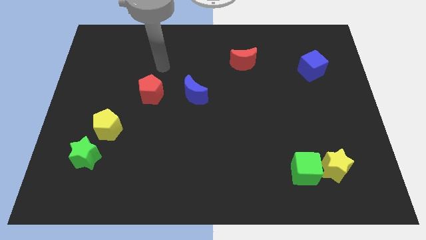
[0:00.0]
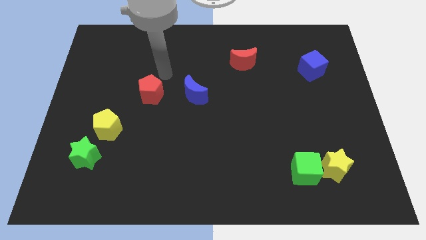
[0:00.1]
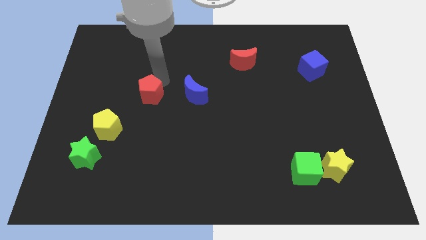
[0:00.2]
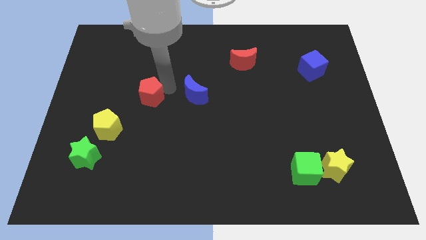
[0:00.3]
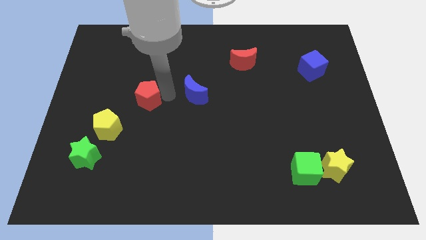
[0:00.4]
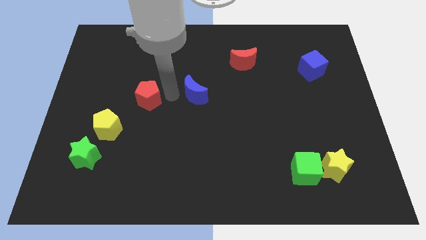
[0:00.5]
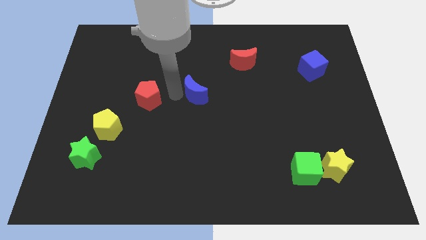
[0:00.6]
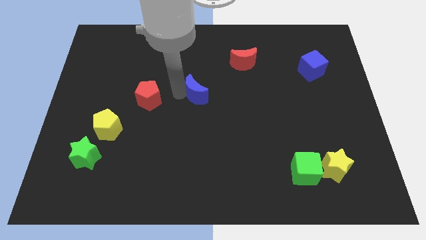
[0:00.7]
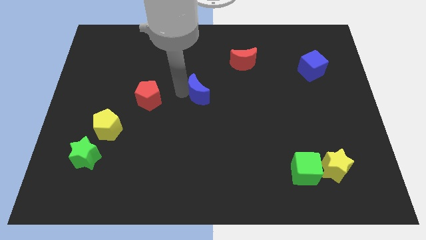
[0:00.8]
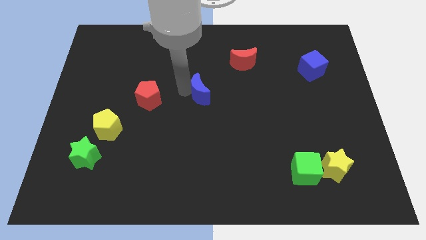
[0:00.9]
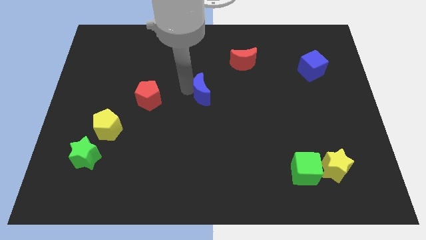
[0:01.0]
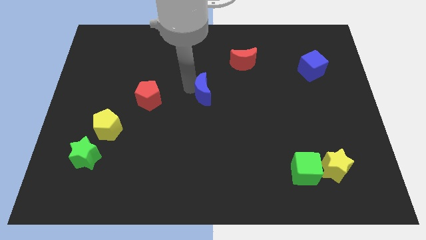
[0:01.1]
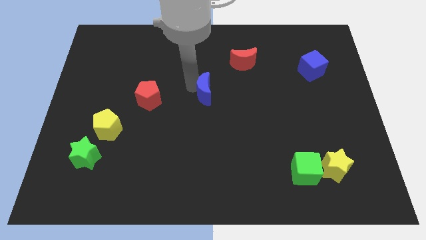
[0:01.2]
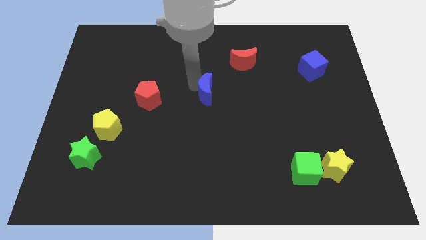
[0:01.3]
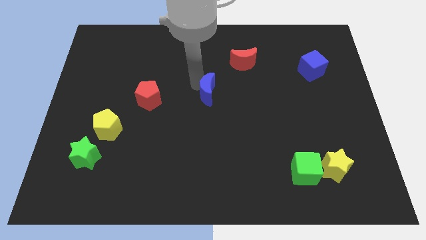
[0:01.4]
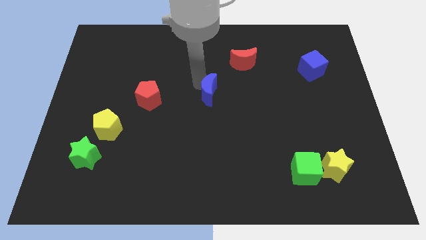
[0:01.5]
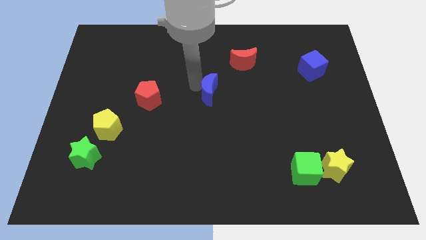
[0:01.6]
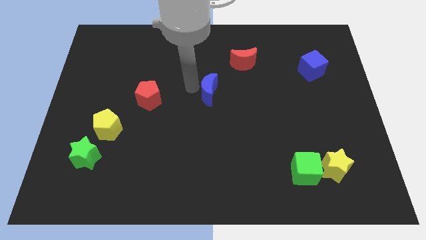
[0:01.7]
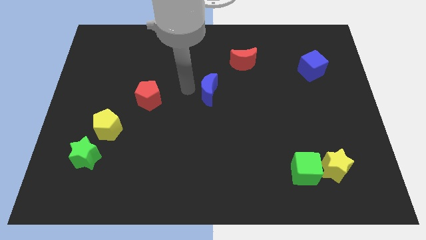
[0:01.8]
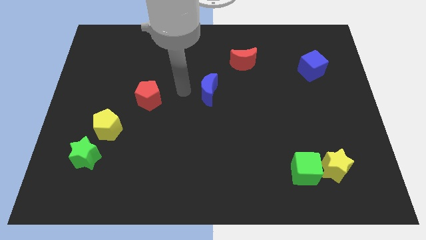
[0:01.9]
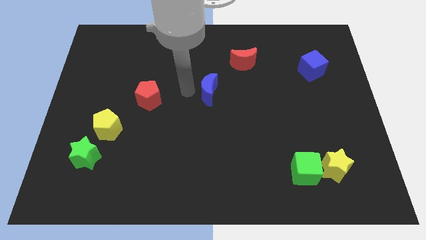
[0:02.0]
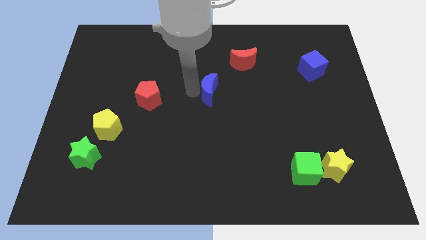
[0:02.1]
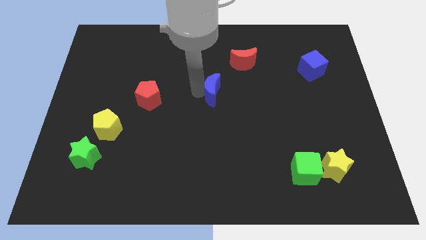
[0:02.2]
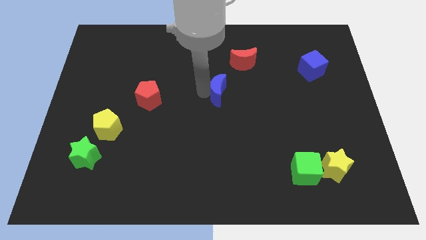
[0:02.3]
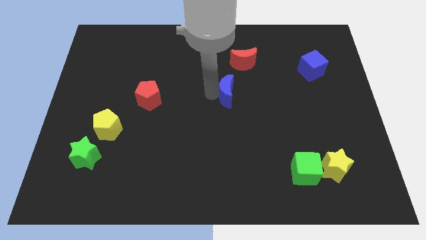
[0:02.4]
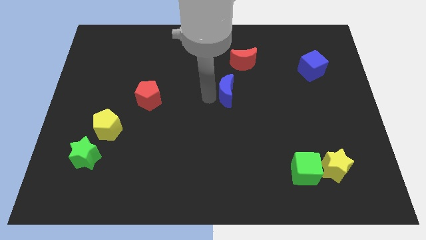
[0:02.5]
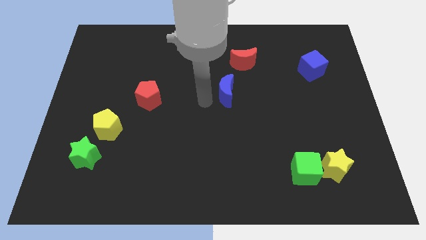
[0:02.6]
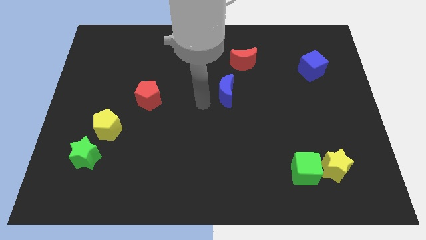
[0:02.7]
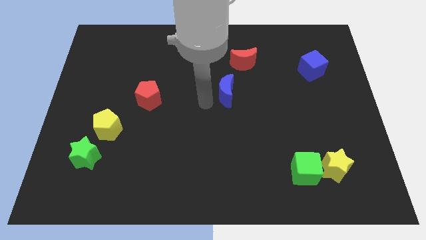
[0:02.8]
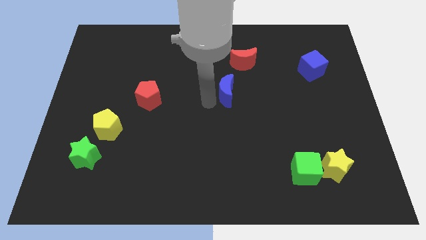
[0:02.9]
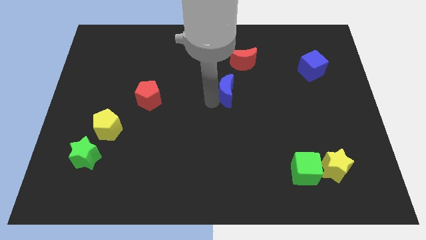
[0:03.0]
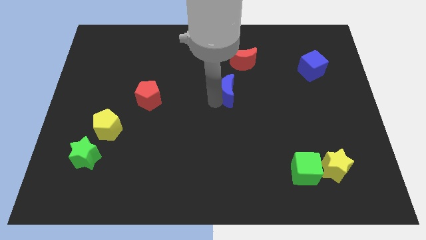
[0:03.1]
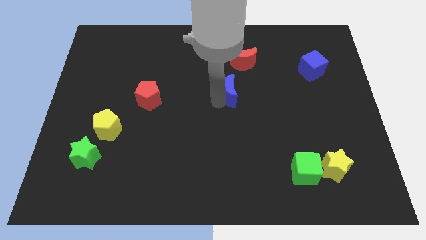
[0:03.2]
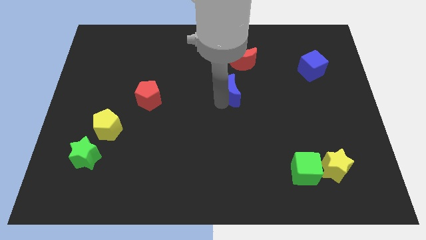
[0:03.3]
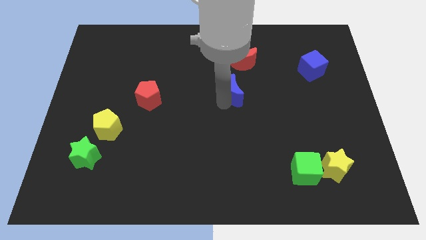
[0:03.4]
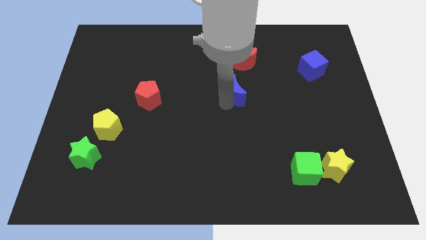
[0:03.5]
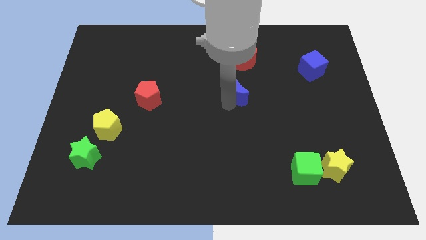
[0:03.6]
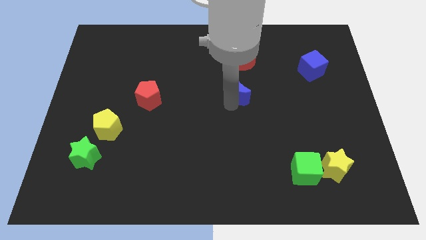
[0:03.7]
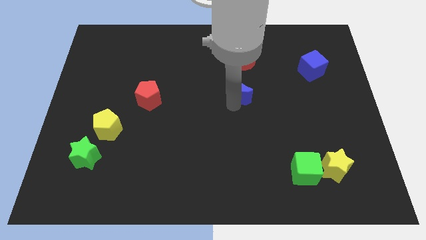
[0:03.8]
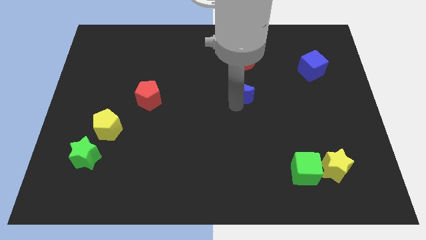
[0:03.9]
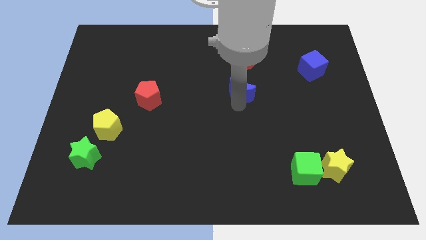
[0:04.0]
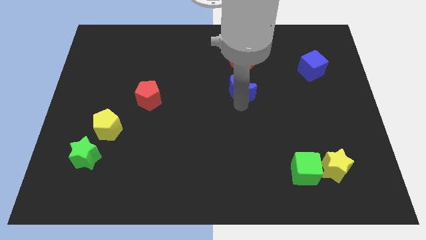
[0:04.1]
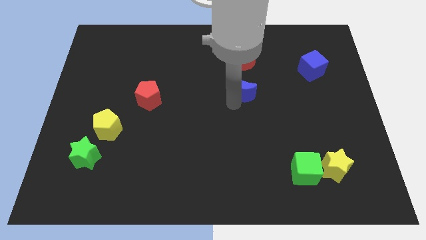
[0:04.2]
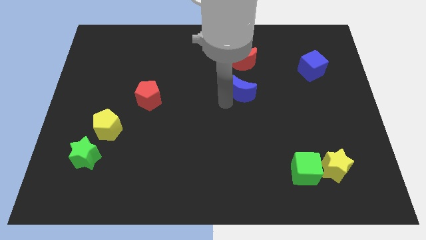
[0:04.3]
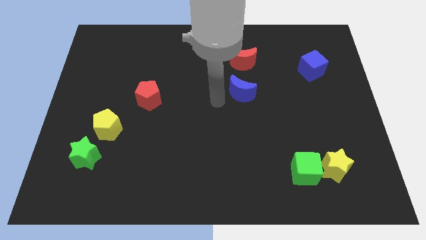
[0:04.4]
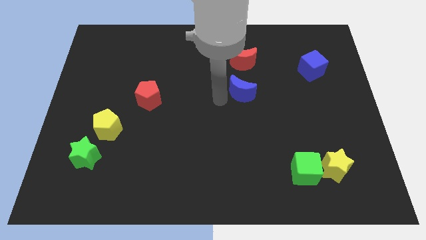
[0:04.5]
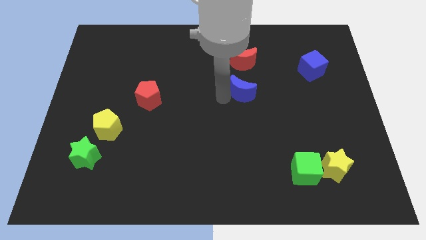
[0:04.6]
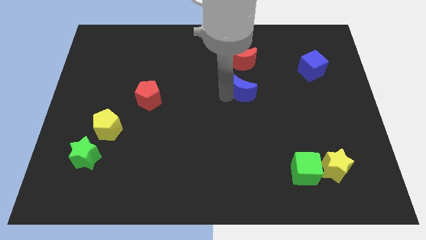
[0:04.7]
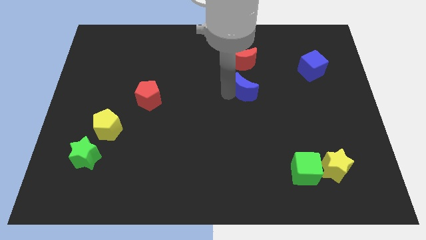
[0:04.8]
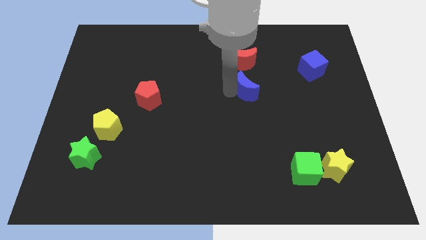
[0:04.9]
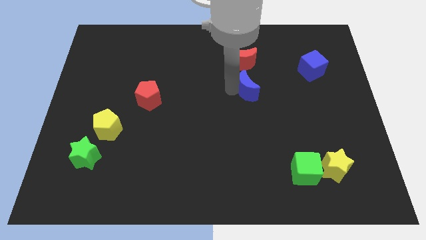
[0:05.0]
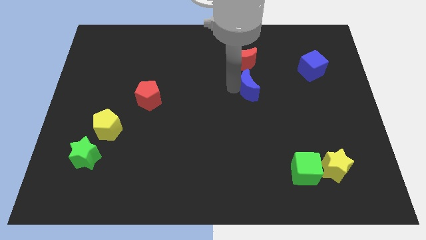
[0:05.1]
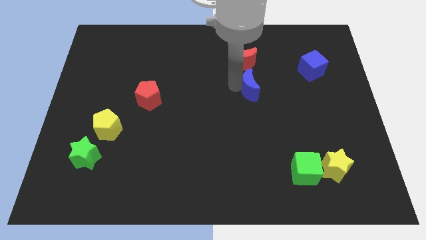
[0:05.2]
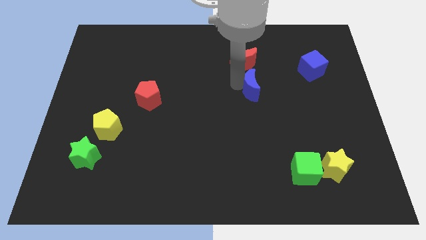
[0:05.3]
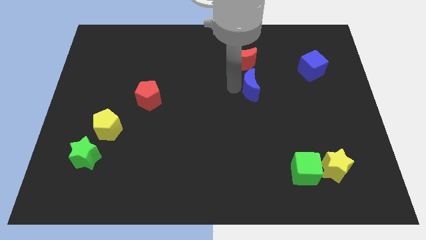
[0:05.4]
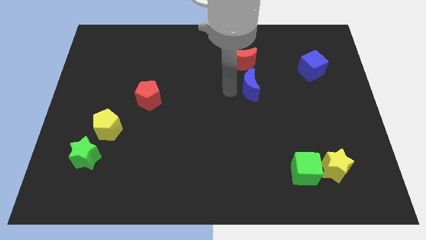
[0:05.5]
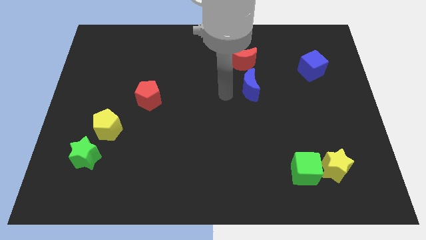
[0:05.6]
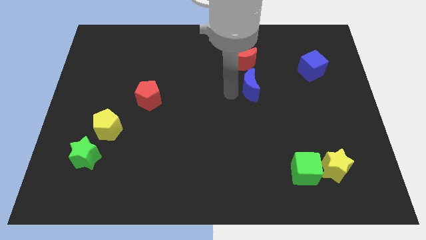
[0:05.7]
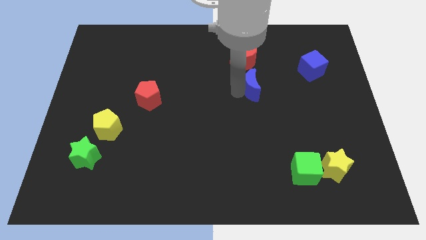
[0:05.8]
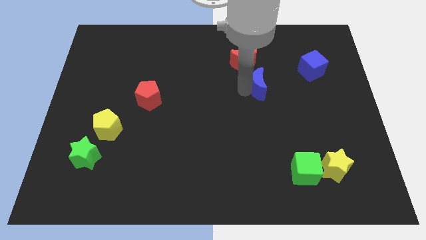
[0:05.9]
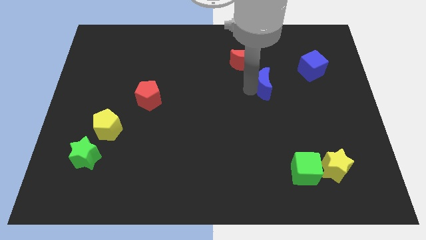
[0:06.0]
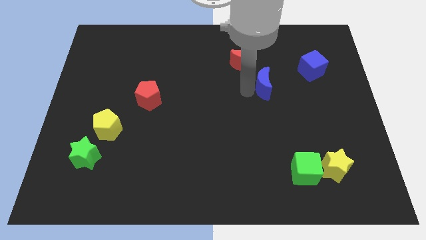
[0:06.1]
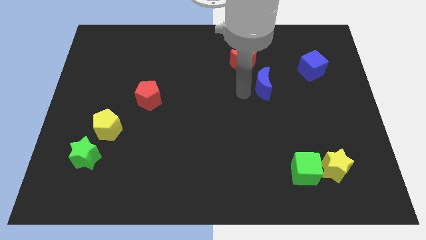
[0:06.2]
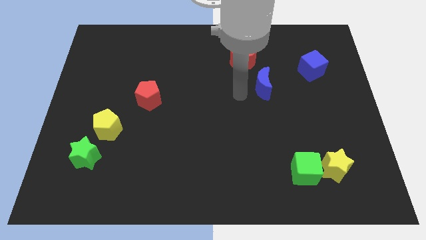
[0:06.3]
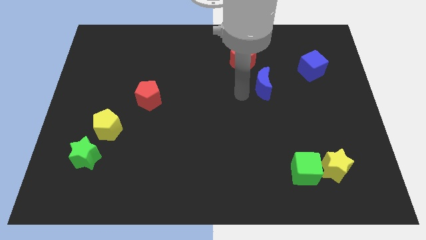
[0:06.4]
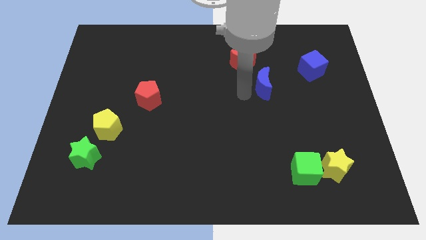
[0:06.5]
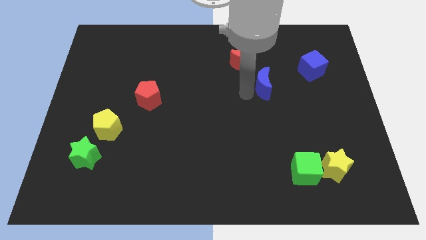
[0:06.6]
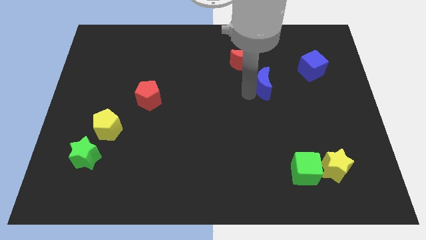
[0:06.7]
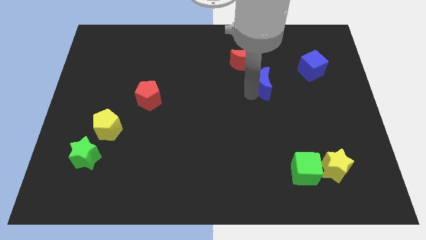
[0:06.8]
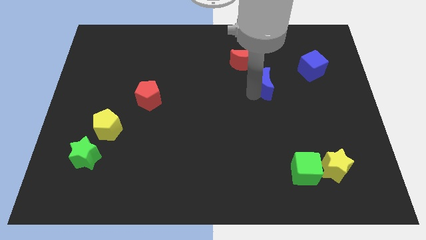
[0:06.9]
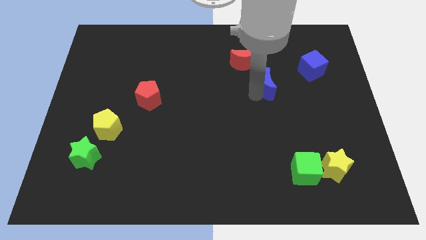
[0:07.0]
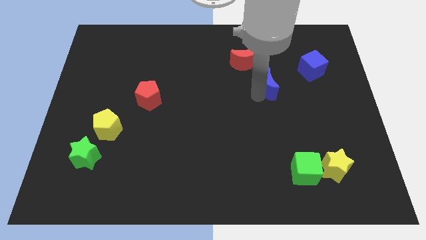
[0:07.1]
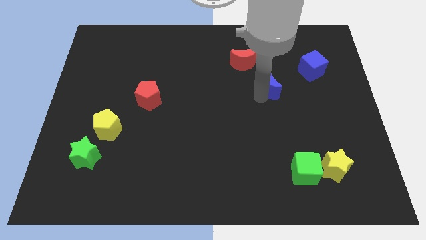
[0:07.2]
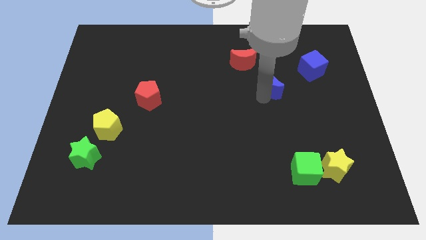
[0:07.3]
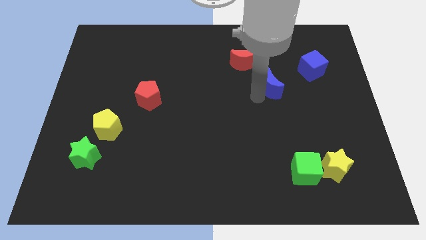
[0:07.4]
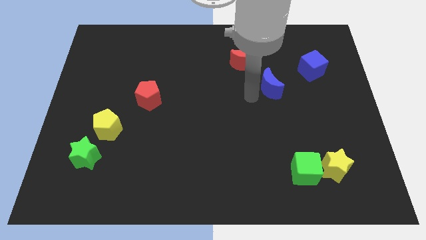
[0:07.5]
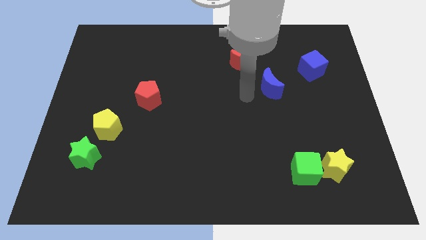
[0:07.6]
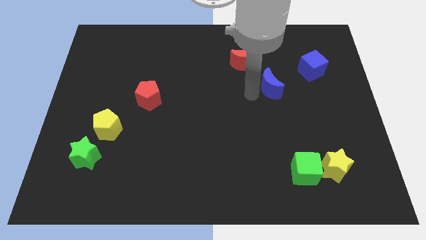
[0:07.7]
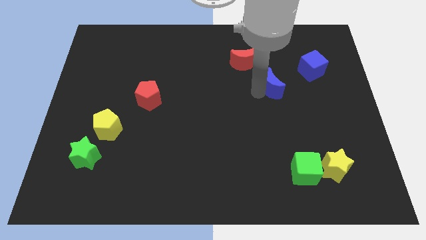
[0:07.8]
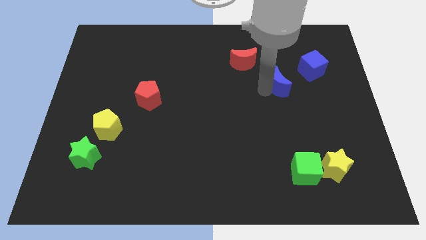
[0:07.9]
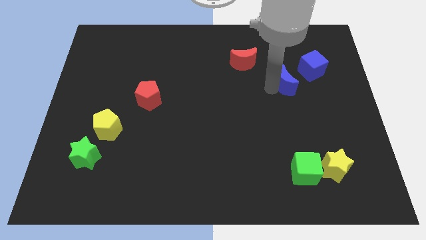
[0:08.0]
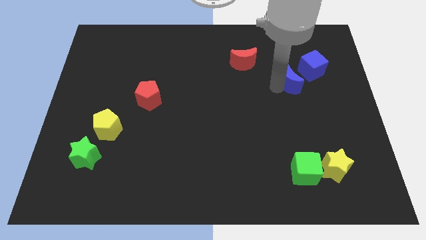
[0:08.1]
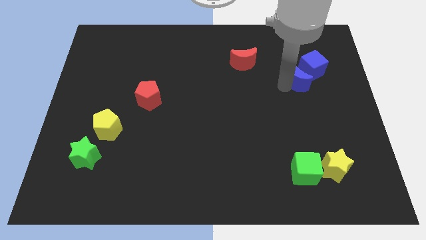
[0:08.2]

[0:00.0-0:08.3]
push the blue moon close to the blue cube
